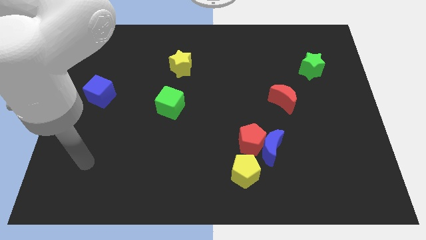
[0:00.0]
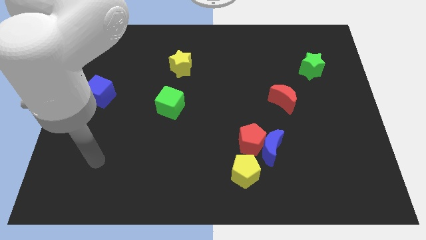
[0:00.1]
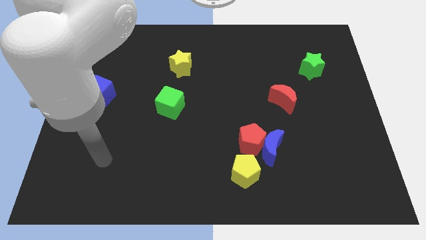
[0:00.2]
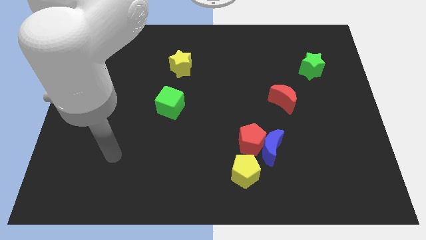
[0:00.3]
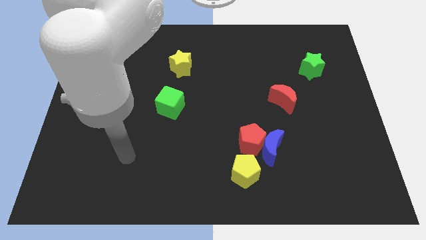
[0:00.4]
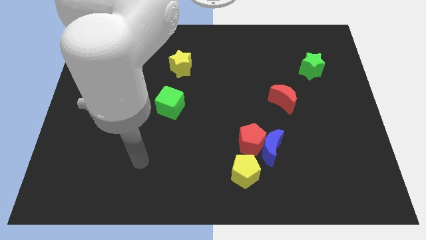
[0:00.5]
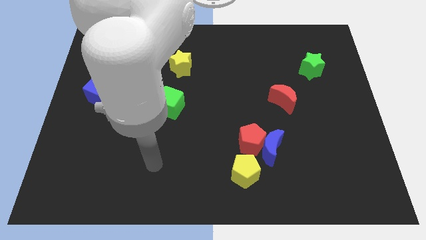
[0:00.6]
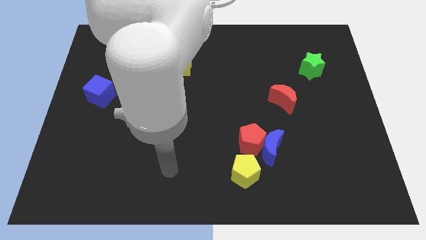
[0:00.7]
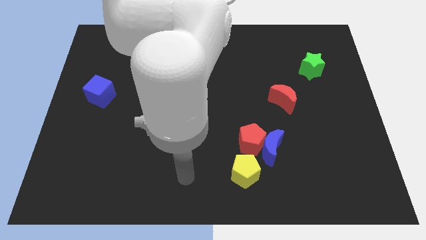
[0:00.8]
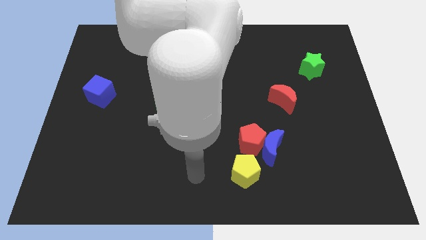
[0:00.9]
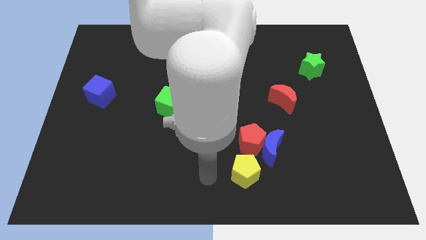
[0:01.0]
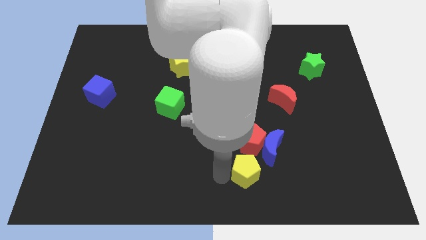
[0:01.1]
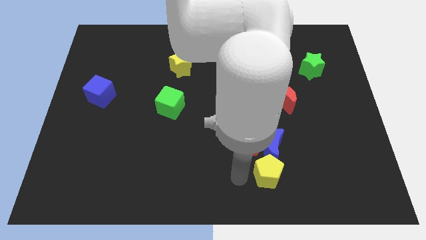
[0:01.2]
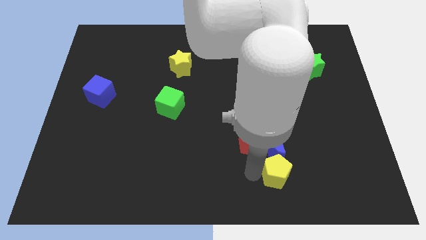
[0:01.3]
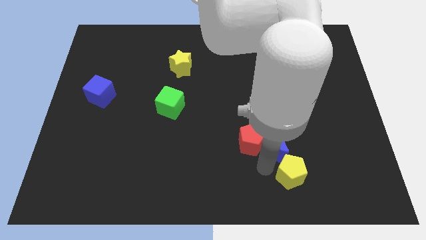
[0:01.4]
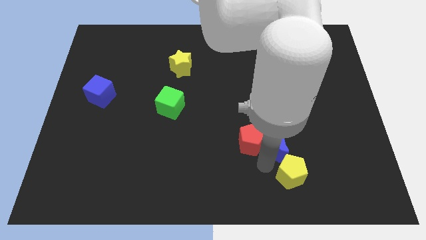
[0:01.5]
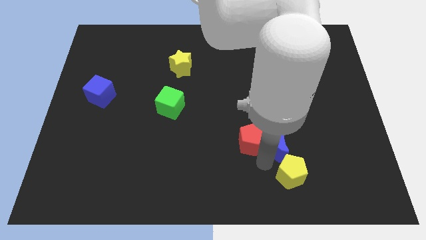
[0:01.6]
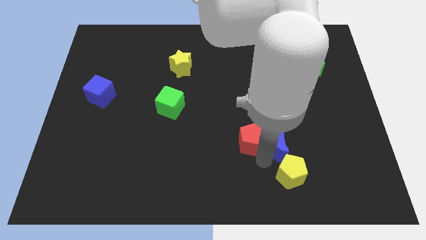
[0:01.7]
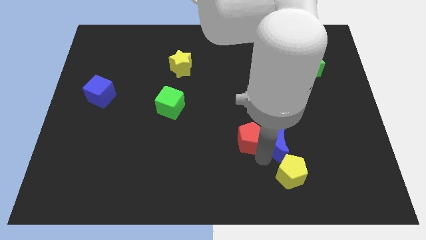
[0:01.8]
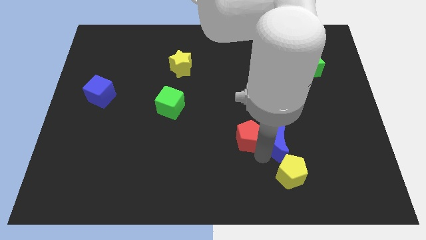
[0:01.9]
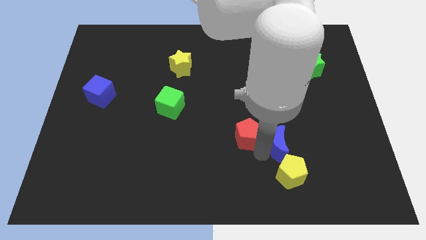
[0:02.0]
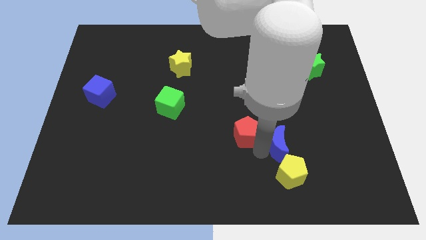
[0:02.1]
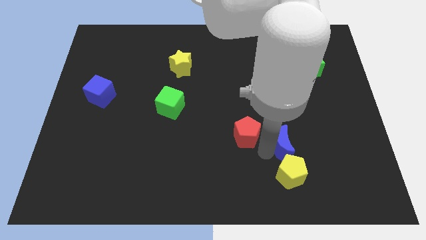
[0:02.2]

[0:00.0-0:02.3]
move the red pentagon away from the blue moon and yellow pentagon

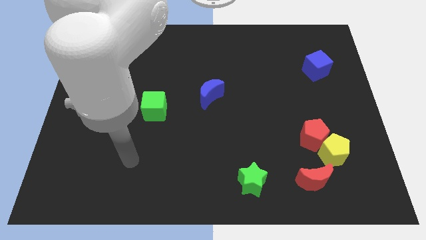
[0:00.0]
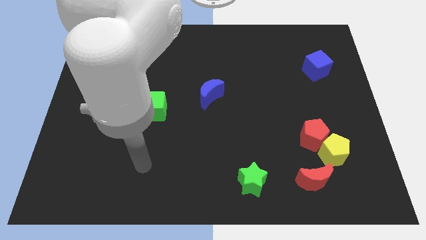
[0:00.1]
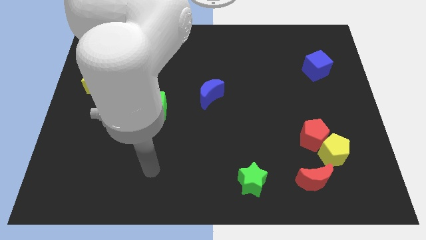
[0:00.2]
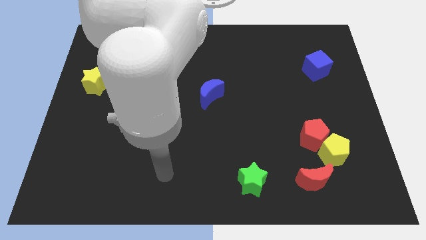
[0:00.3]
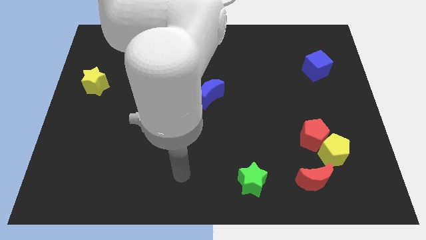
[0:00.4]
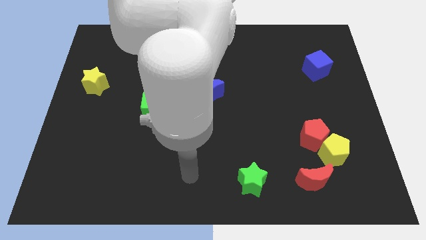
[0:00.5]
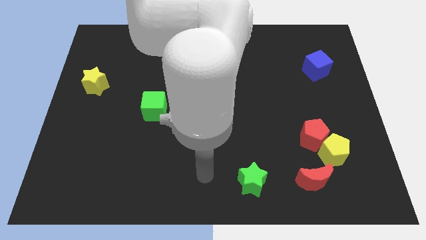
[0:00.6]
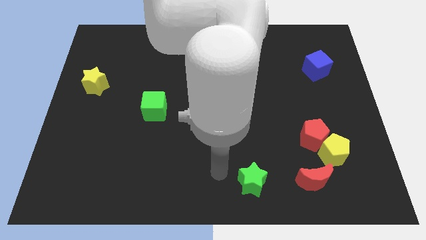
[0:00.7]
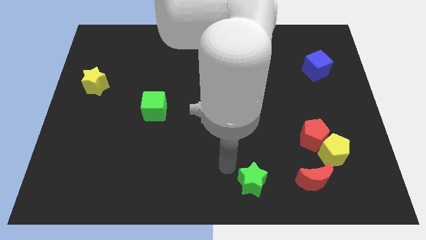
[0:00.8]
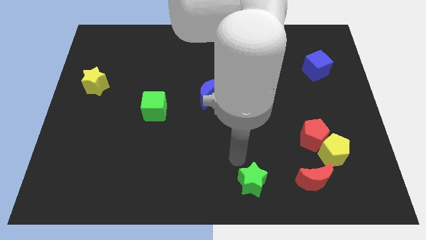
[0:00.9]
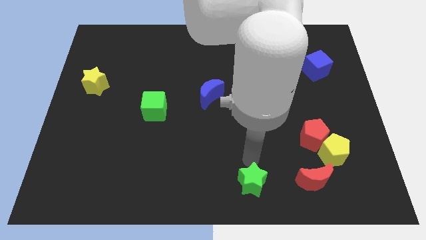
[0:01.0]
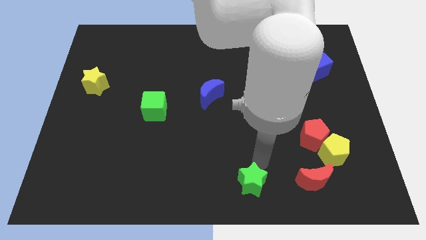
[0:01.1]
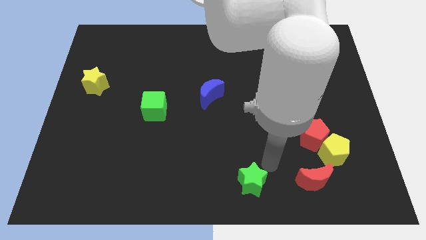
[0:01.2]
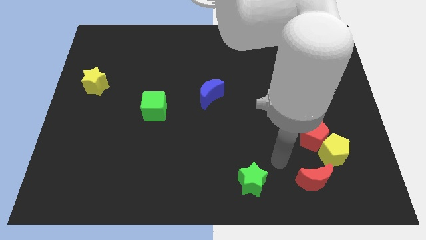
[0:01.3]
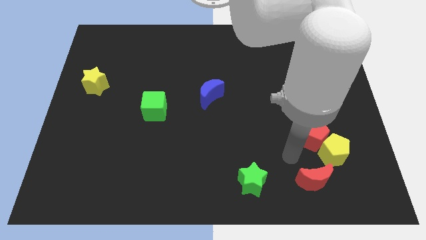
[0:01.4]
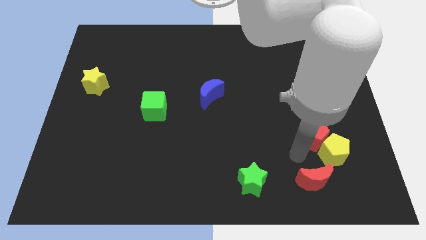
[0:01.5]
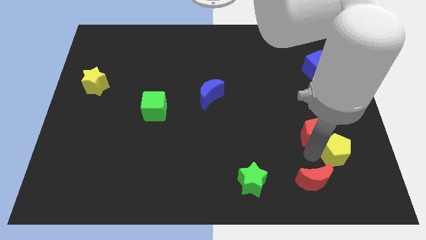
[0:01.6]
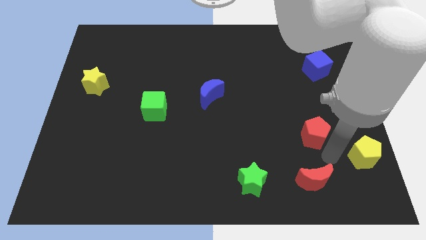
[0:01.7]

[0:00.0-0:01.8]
move the red pentagon away from the yellow pentagon

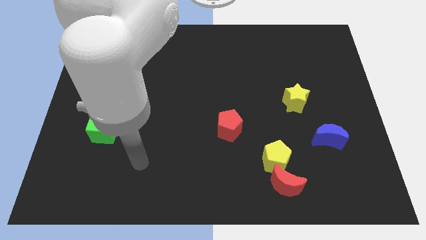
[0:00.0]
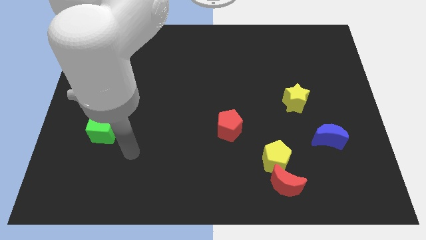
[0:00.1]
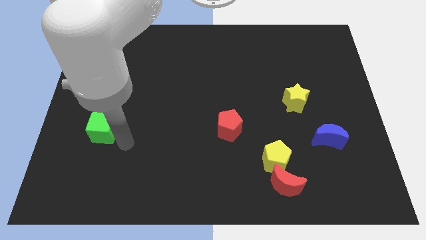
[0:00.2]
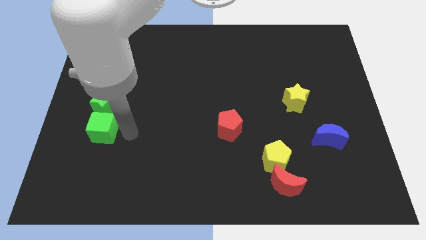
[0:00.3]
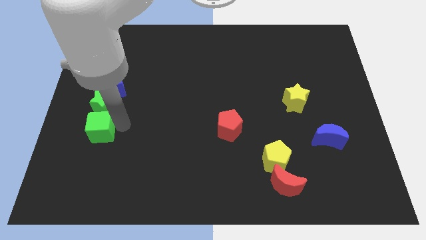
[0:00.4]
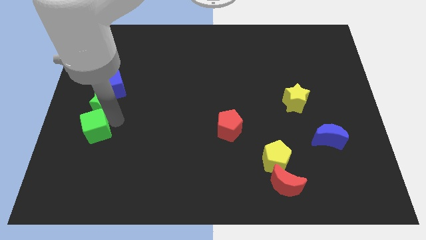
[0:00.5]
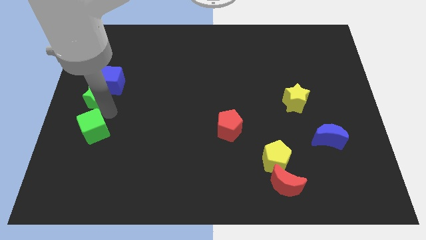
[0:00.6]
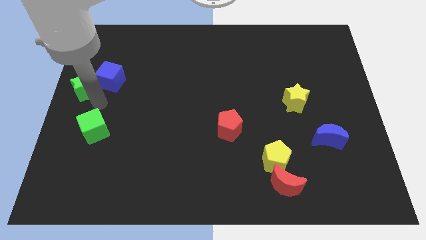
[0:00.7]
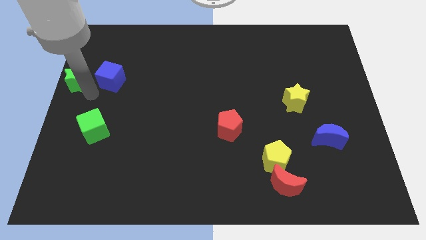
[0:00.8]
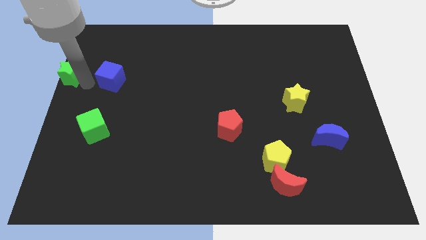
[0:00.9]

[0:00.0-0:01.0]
pull the blue cube apart from the green star

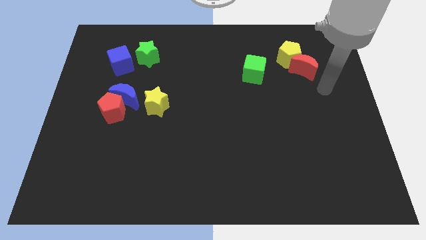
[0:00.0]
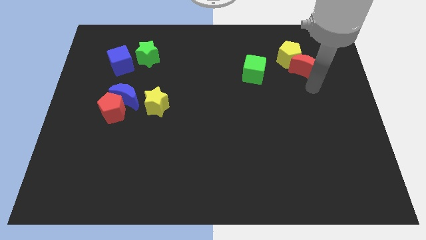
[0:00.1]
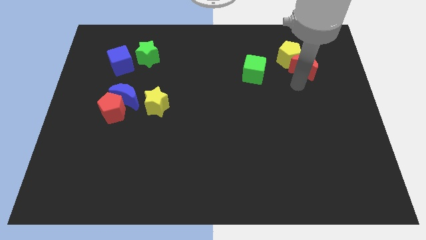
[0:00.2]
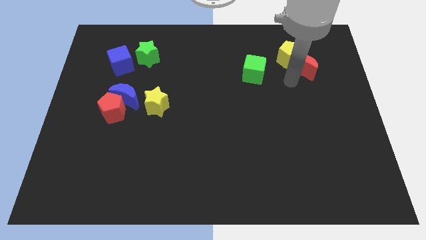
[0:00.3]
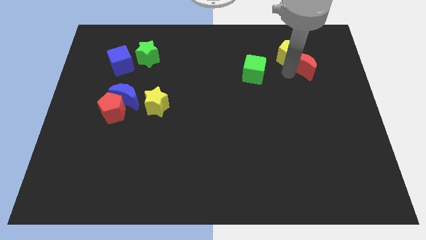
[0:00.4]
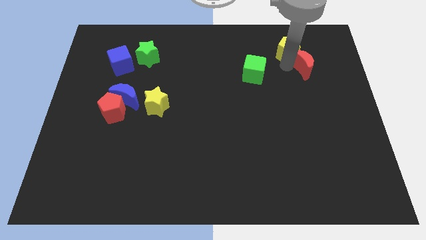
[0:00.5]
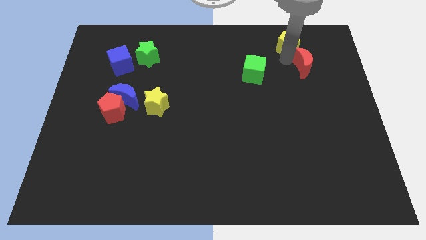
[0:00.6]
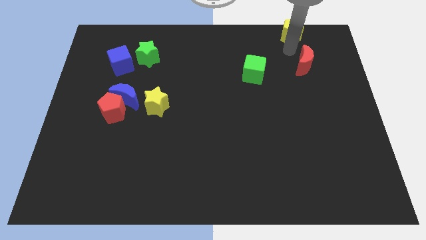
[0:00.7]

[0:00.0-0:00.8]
separate the red moon from the yellow pentagon

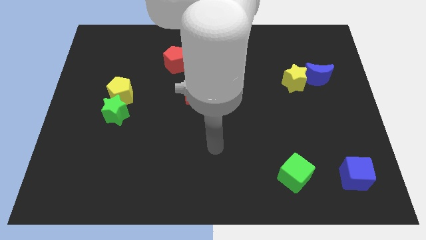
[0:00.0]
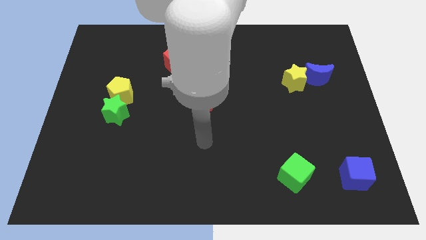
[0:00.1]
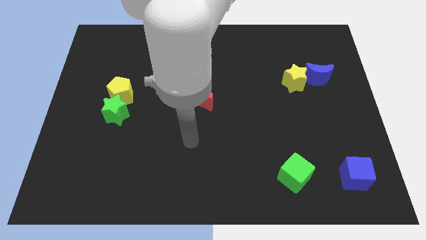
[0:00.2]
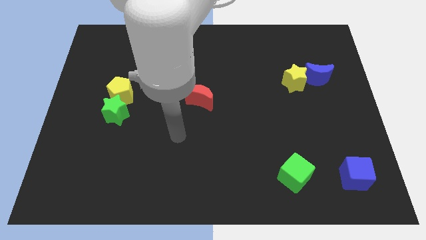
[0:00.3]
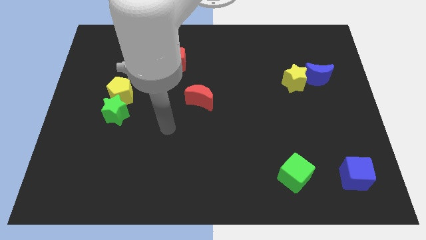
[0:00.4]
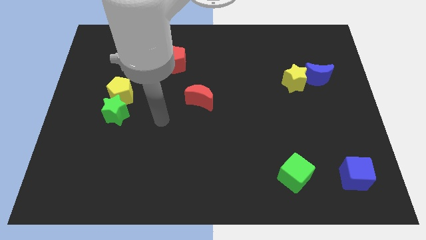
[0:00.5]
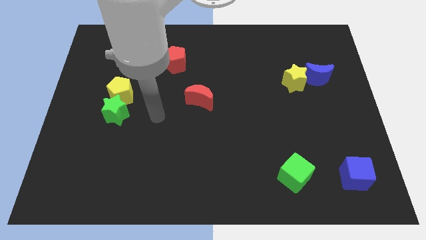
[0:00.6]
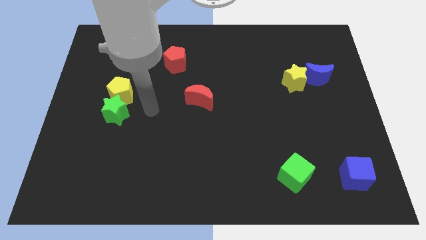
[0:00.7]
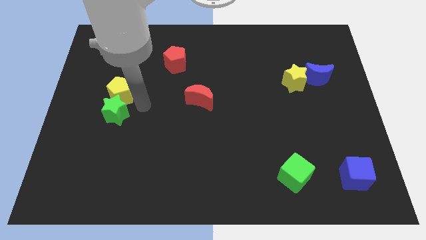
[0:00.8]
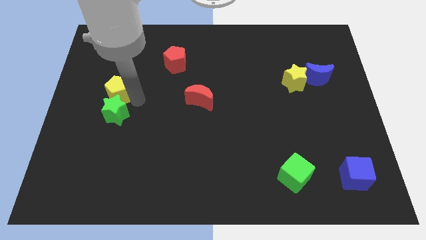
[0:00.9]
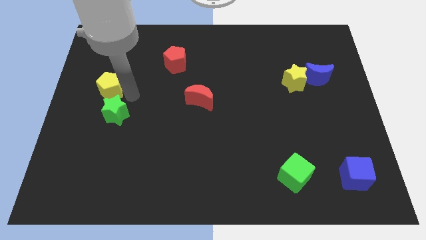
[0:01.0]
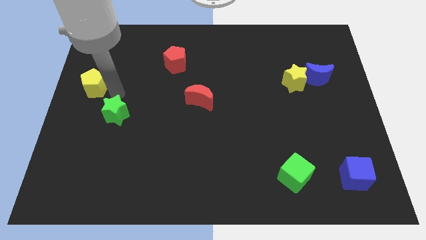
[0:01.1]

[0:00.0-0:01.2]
separate the green star from the yellow pentagon

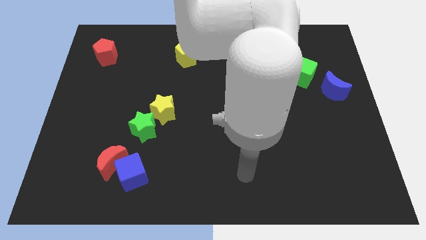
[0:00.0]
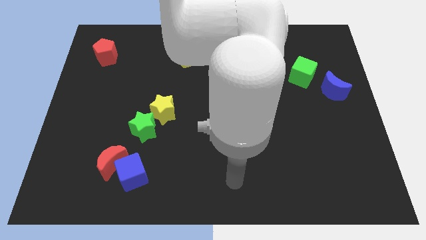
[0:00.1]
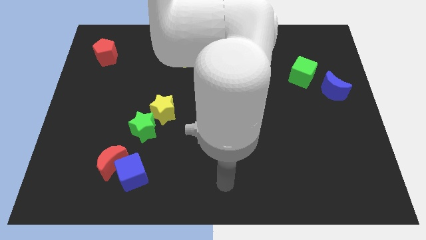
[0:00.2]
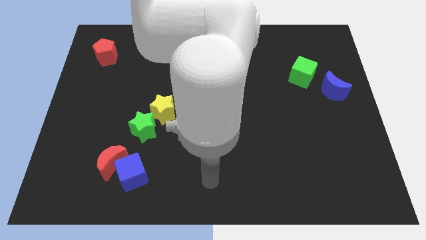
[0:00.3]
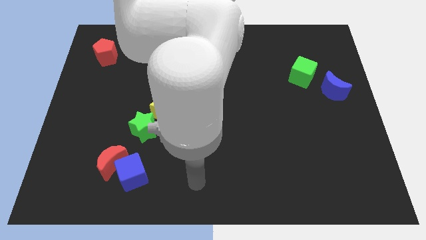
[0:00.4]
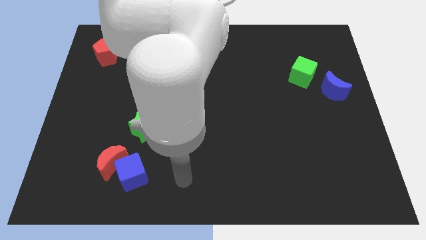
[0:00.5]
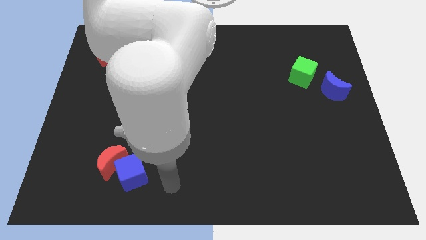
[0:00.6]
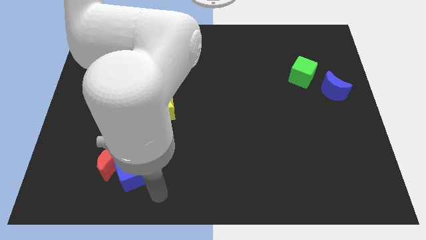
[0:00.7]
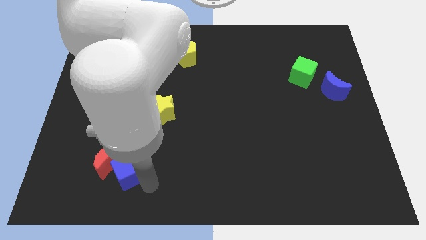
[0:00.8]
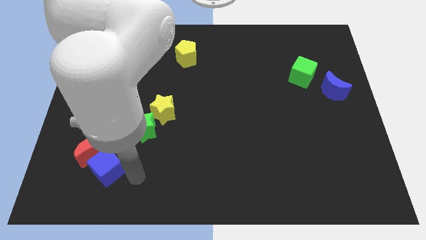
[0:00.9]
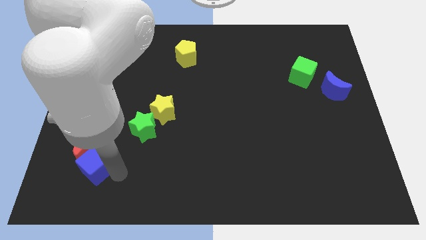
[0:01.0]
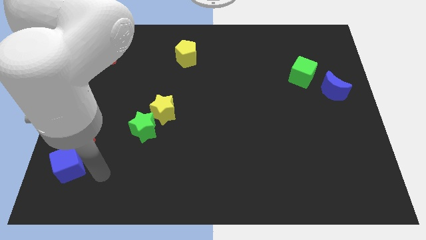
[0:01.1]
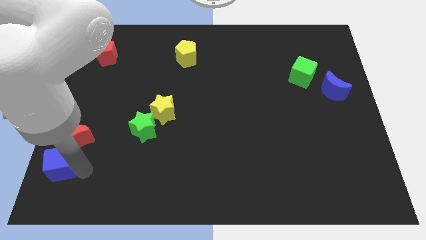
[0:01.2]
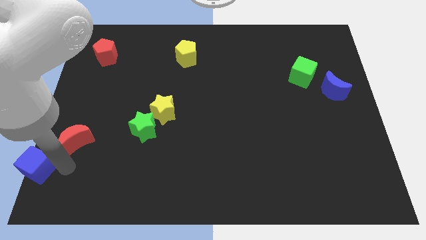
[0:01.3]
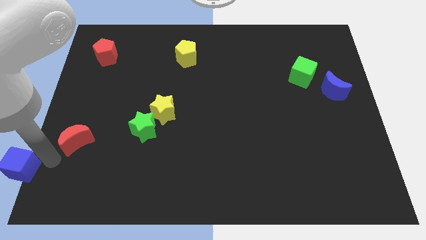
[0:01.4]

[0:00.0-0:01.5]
move the red moon away from the blue cube

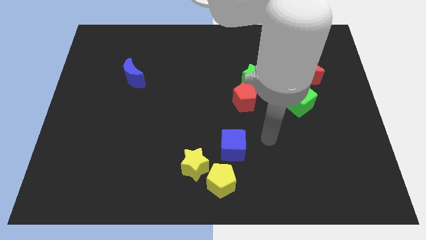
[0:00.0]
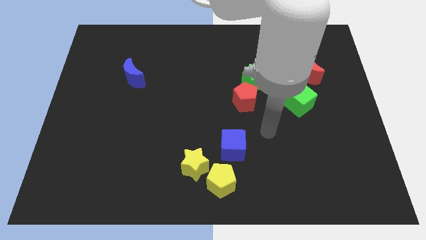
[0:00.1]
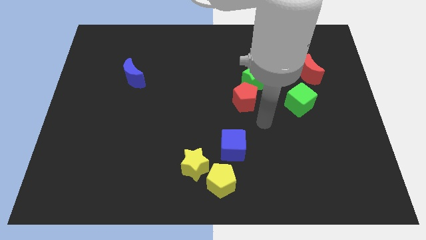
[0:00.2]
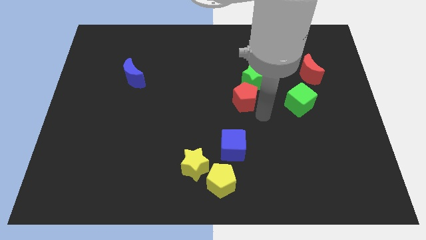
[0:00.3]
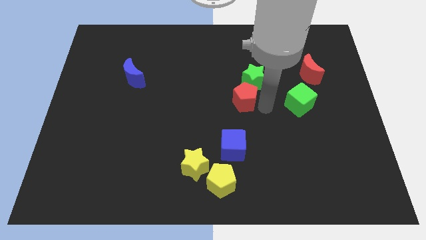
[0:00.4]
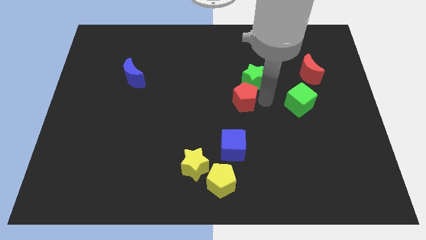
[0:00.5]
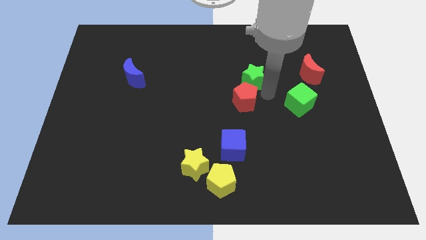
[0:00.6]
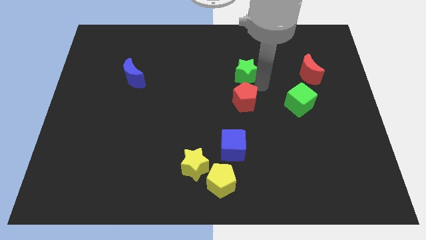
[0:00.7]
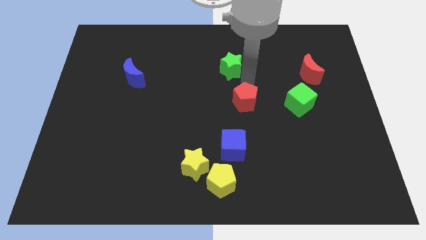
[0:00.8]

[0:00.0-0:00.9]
pull the red pentagon apart from the green star
